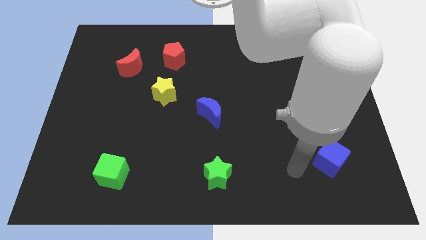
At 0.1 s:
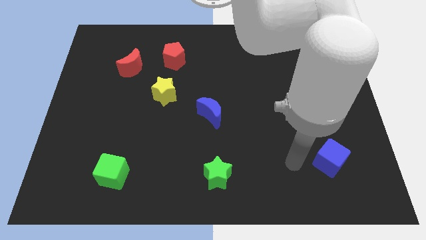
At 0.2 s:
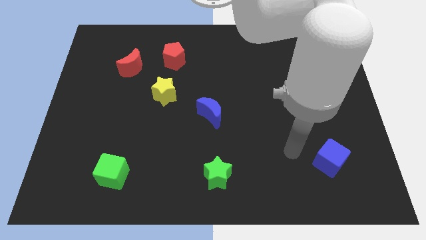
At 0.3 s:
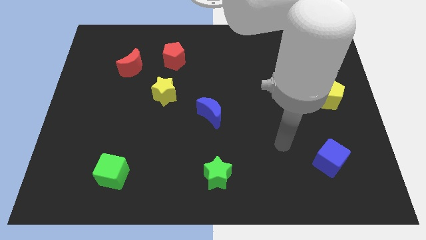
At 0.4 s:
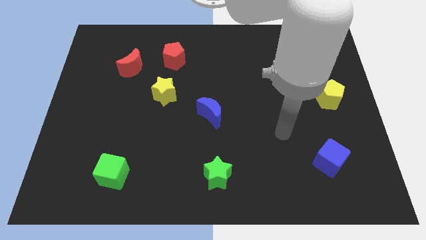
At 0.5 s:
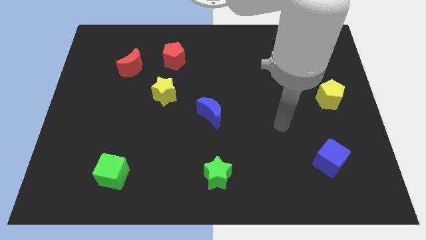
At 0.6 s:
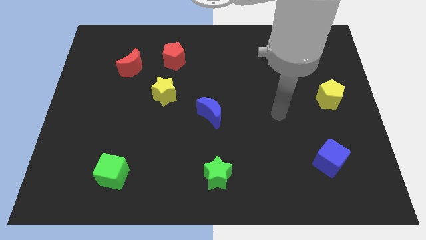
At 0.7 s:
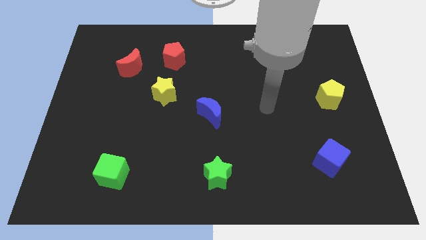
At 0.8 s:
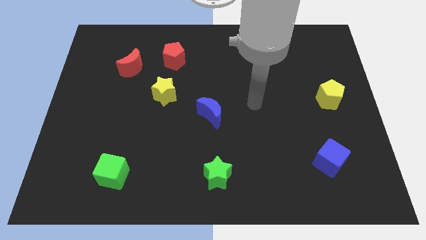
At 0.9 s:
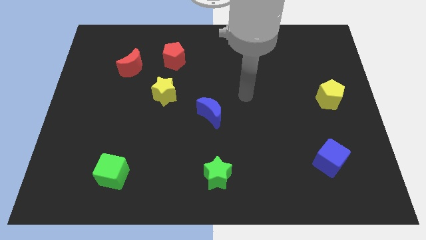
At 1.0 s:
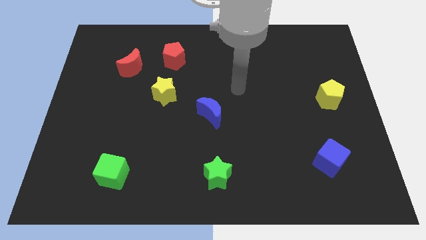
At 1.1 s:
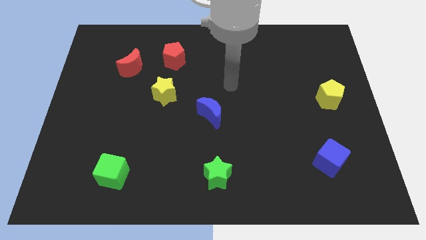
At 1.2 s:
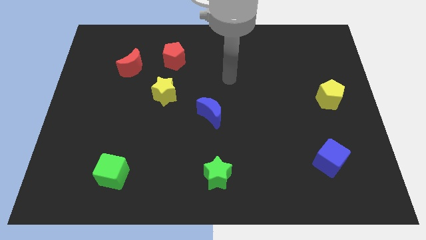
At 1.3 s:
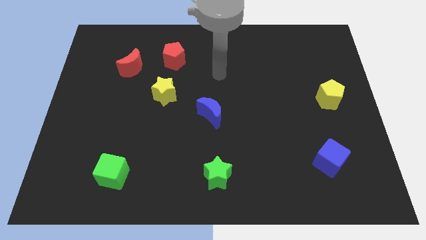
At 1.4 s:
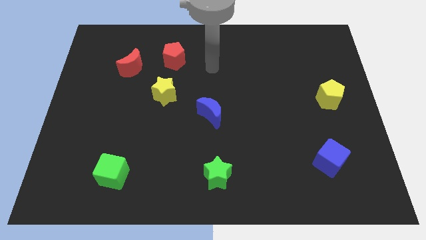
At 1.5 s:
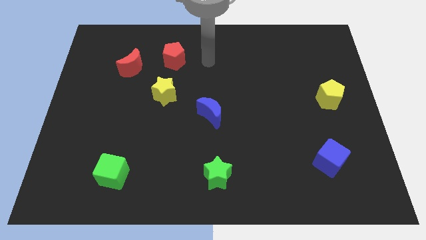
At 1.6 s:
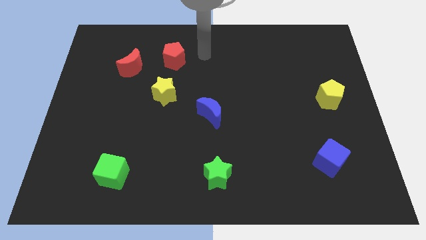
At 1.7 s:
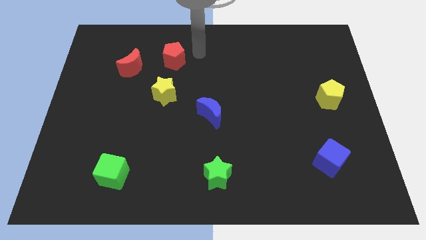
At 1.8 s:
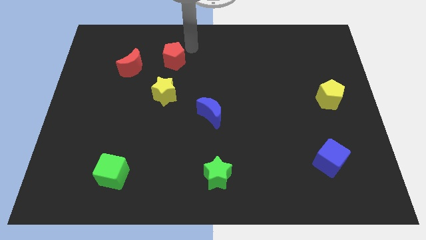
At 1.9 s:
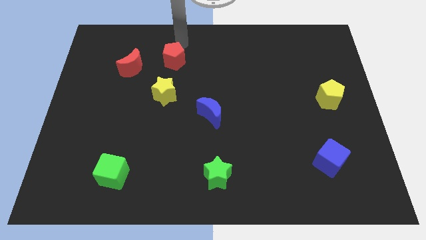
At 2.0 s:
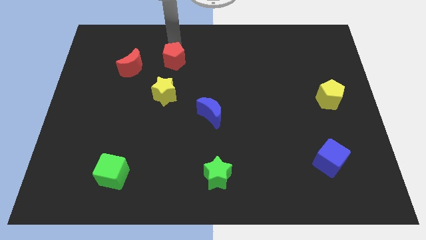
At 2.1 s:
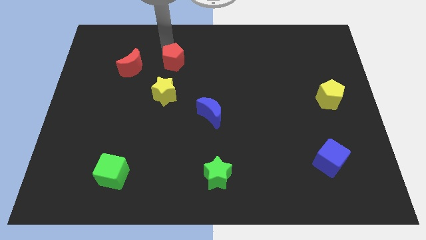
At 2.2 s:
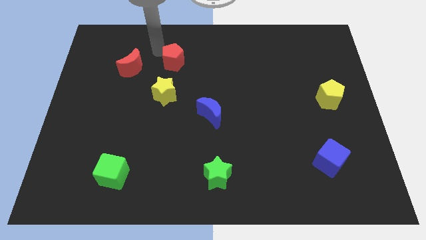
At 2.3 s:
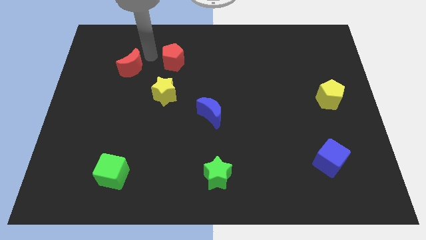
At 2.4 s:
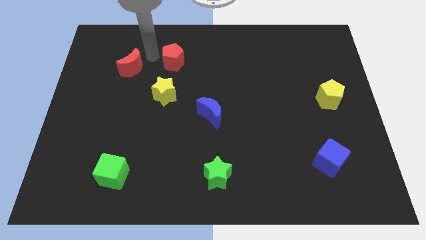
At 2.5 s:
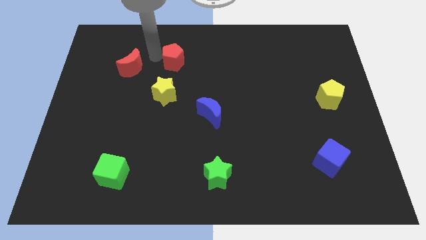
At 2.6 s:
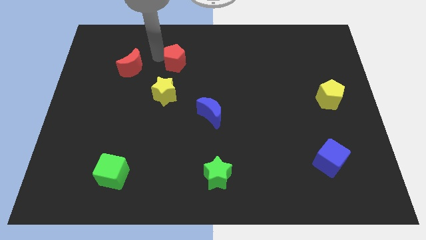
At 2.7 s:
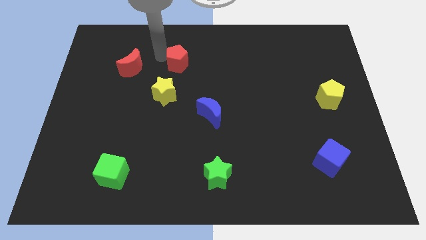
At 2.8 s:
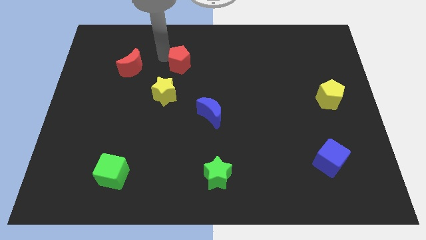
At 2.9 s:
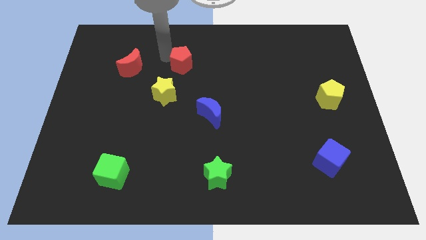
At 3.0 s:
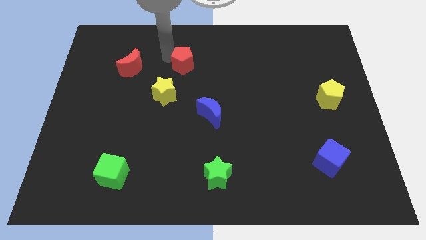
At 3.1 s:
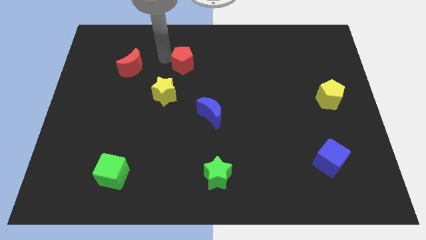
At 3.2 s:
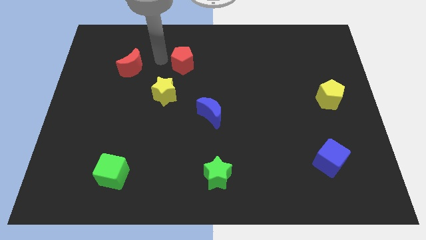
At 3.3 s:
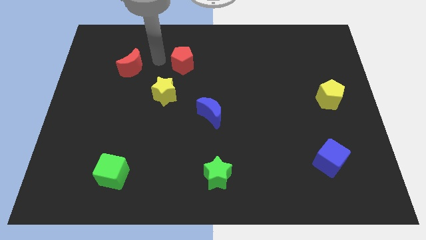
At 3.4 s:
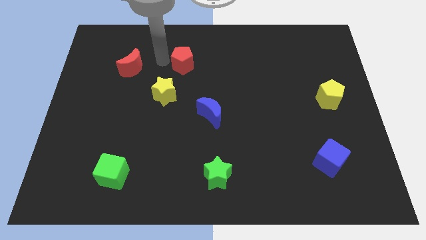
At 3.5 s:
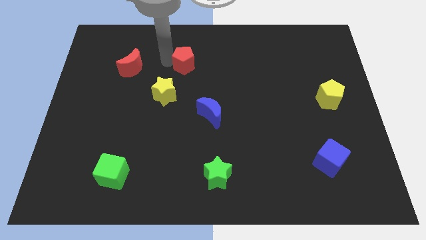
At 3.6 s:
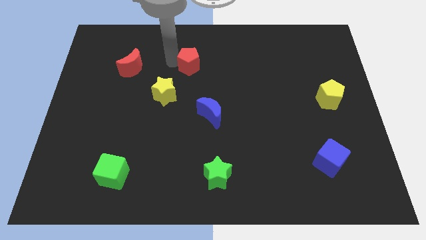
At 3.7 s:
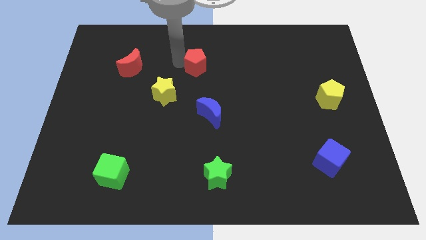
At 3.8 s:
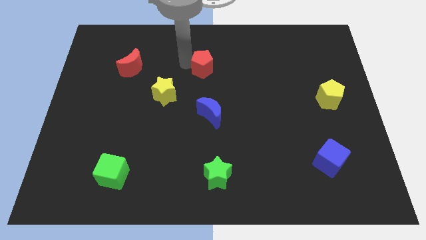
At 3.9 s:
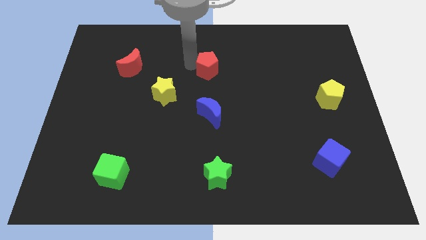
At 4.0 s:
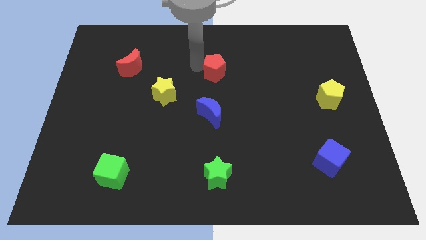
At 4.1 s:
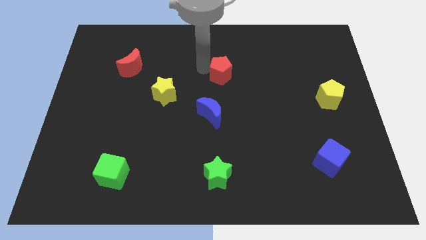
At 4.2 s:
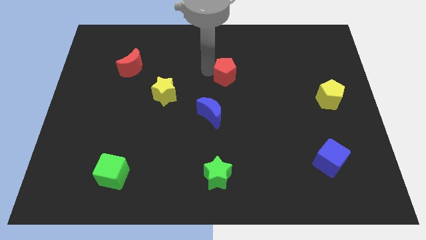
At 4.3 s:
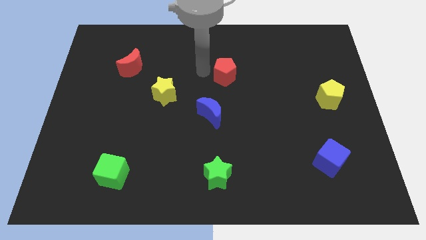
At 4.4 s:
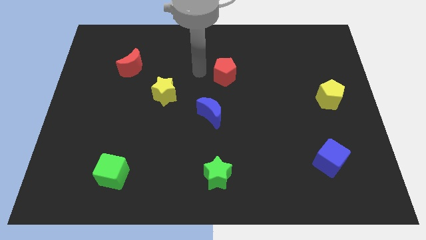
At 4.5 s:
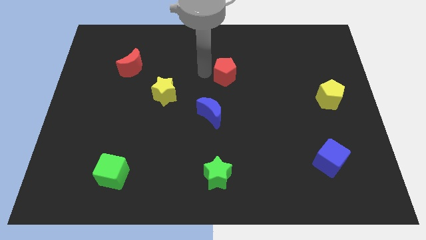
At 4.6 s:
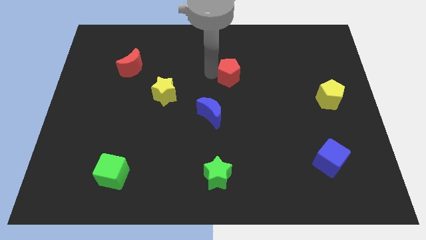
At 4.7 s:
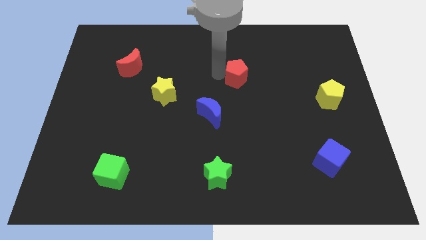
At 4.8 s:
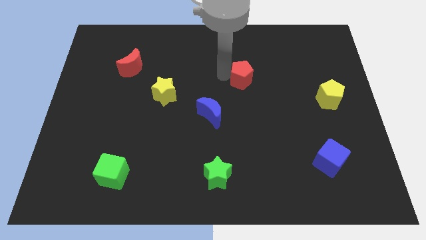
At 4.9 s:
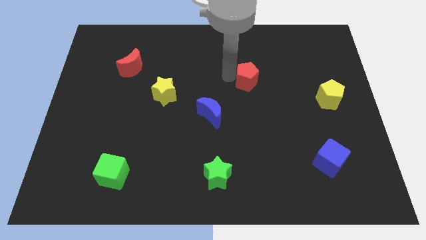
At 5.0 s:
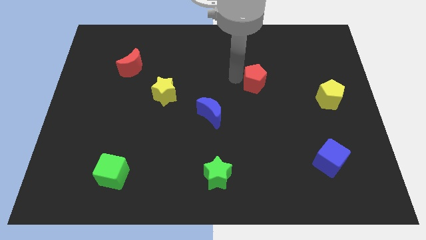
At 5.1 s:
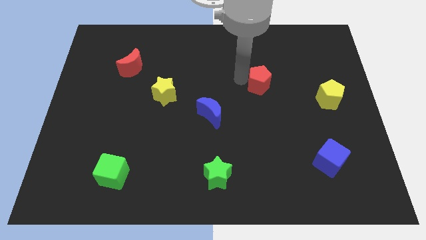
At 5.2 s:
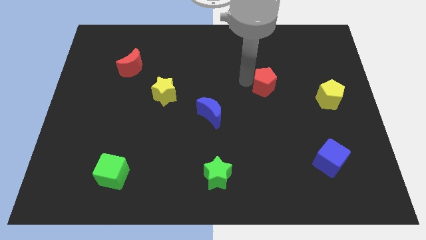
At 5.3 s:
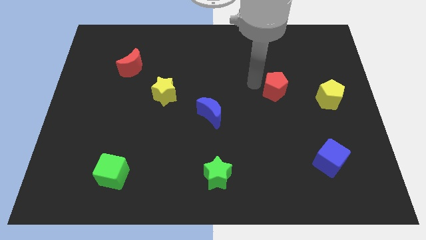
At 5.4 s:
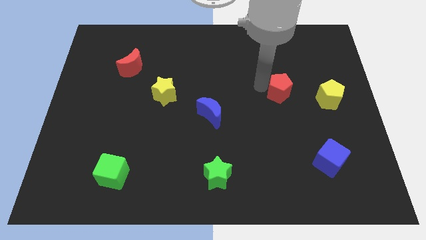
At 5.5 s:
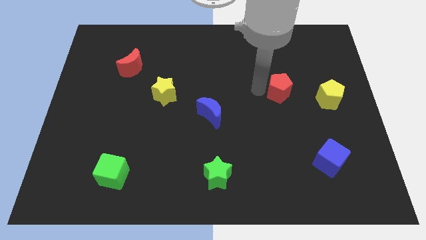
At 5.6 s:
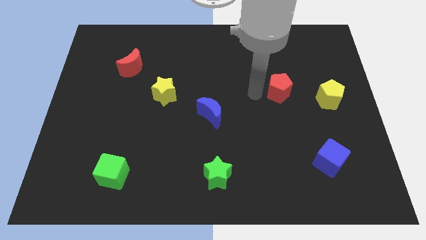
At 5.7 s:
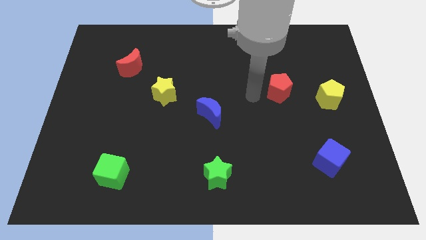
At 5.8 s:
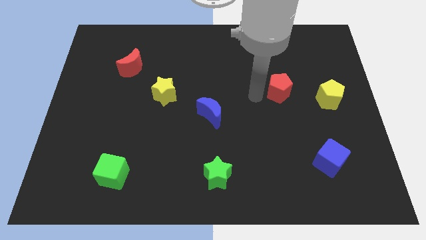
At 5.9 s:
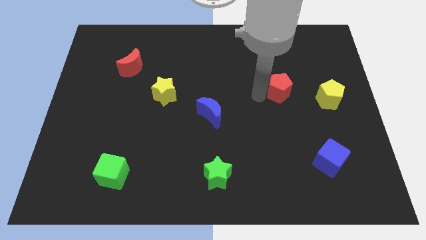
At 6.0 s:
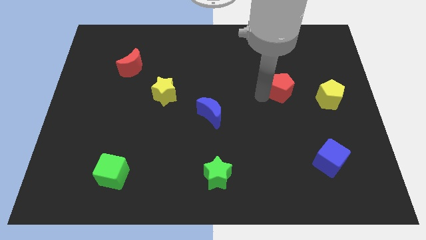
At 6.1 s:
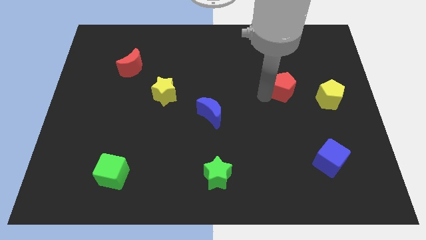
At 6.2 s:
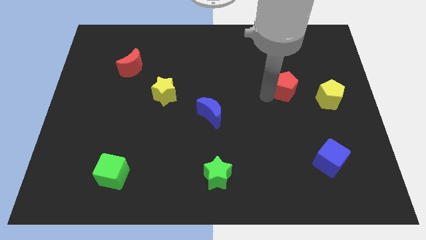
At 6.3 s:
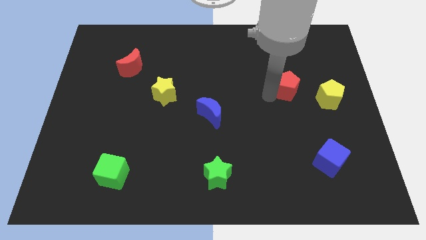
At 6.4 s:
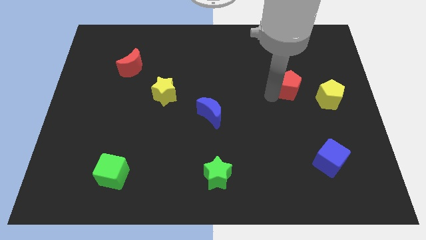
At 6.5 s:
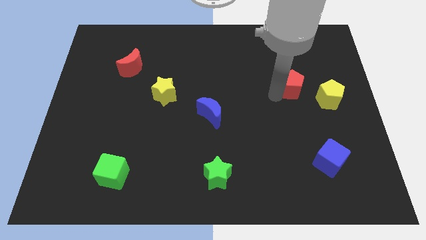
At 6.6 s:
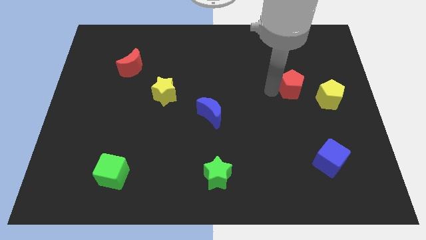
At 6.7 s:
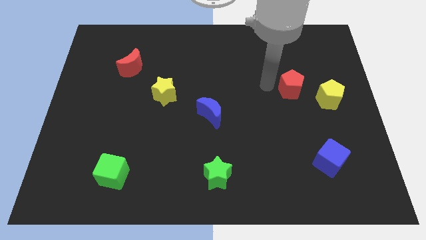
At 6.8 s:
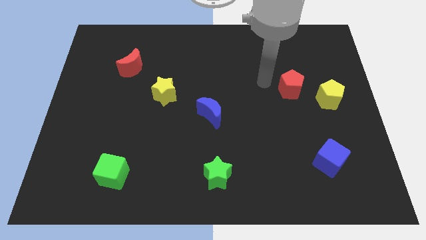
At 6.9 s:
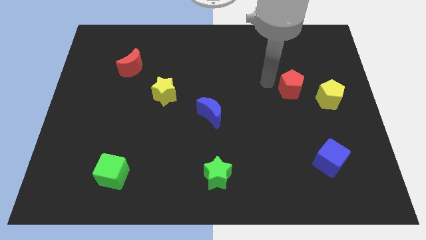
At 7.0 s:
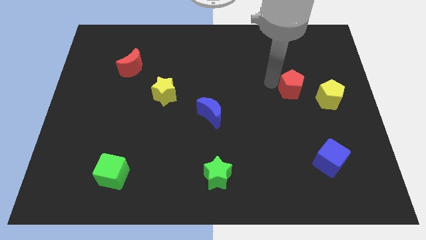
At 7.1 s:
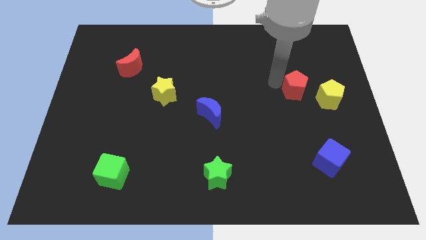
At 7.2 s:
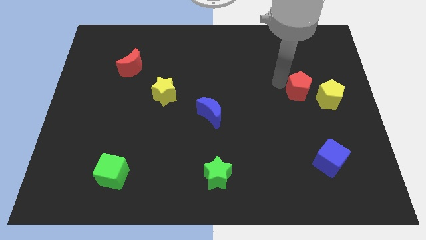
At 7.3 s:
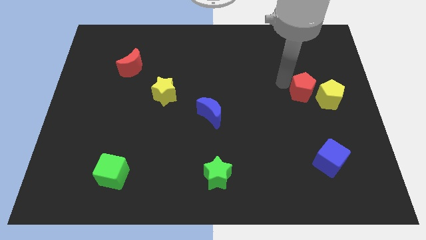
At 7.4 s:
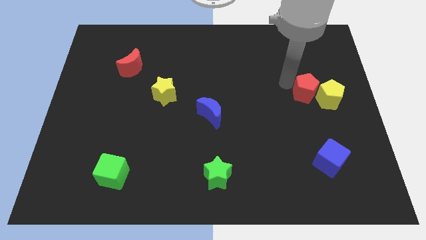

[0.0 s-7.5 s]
slide the red pentagon to the yellow pentagon

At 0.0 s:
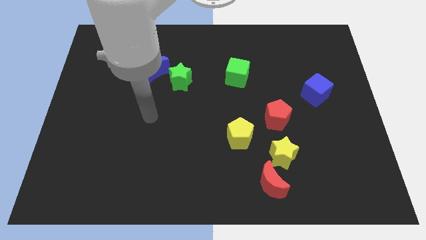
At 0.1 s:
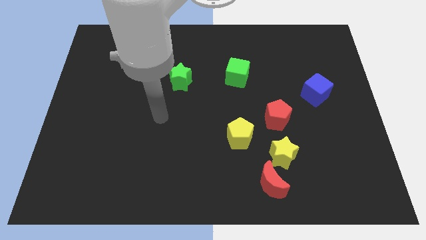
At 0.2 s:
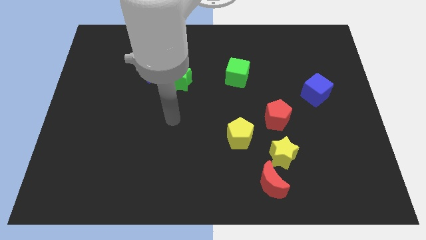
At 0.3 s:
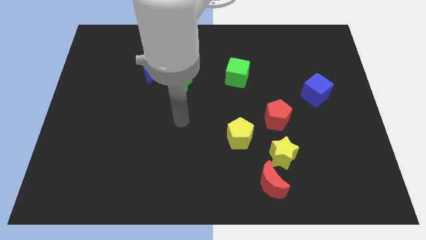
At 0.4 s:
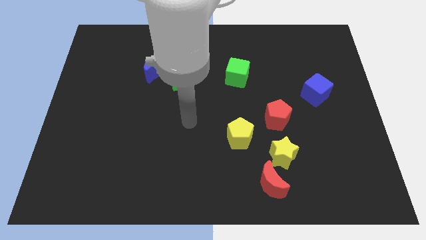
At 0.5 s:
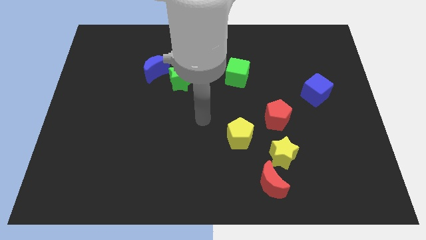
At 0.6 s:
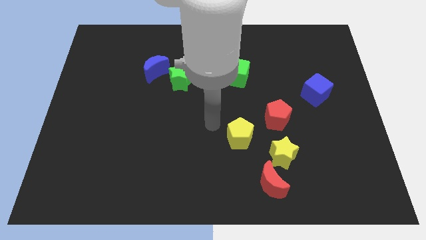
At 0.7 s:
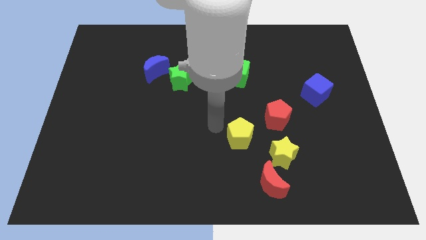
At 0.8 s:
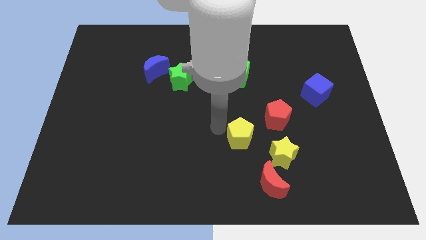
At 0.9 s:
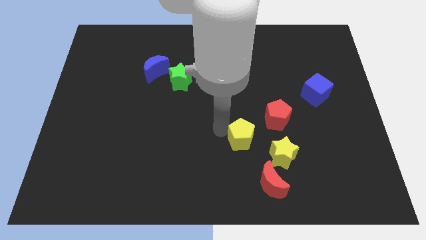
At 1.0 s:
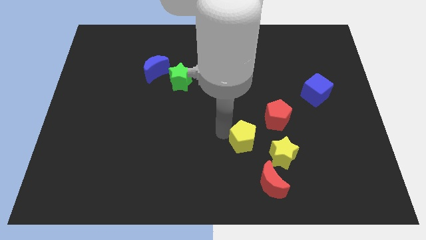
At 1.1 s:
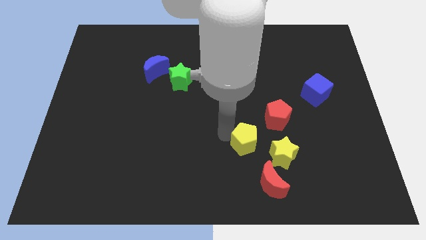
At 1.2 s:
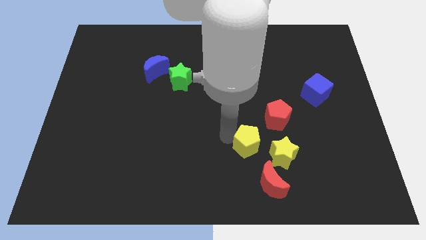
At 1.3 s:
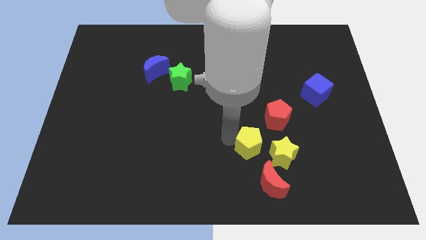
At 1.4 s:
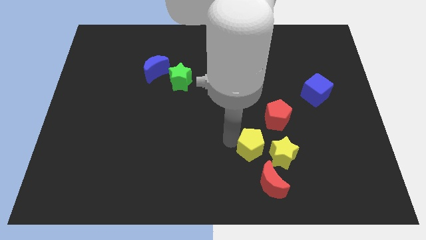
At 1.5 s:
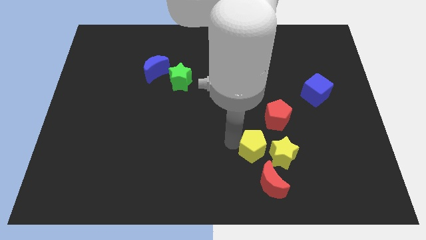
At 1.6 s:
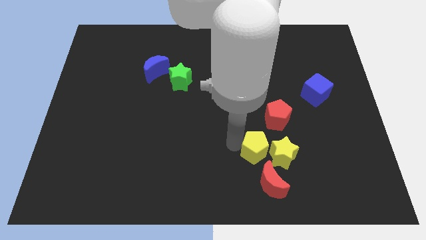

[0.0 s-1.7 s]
move the yellow pentagon to the yellow star
